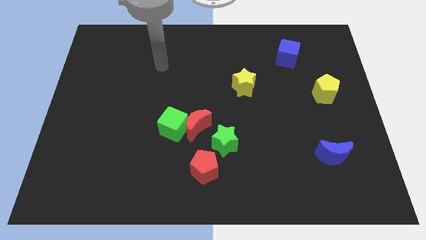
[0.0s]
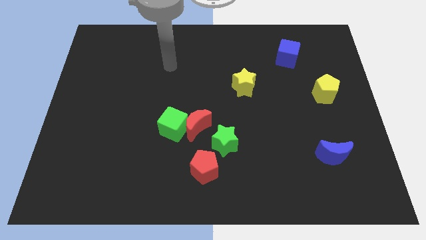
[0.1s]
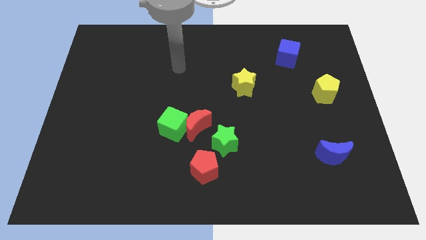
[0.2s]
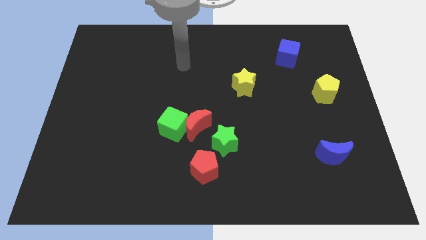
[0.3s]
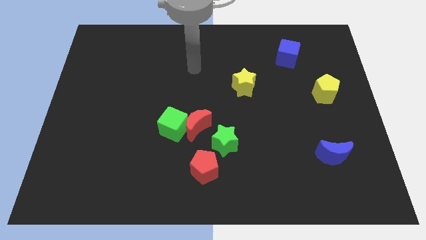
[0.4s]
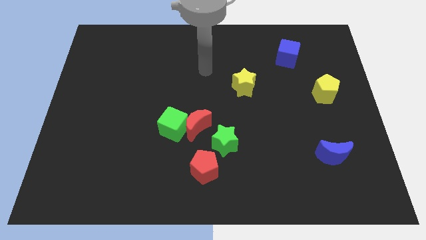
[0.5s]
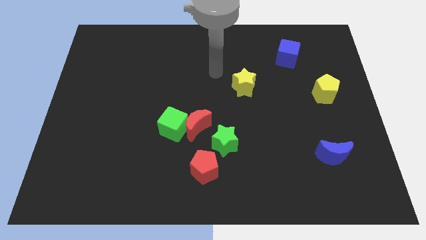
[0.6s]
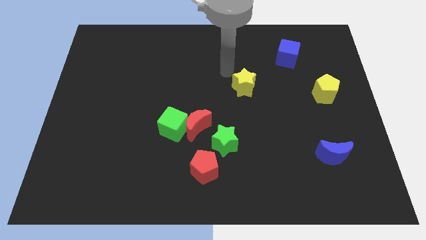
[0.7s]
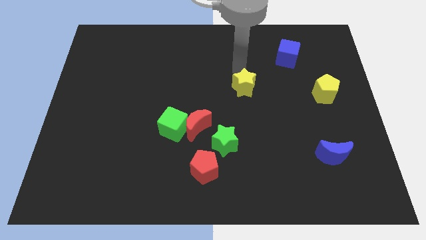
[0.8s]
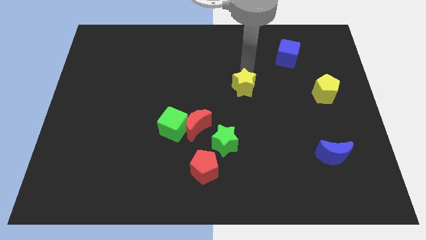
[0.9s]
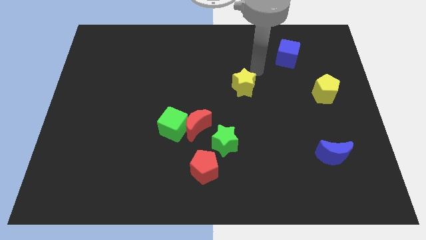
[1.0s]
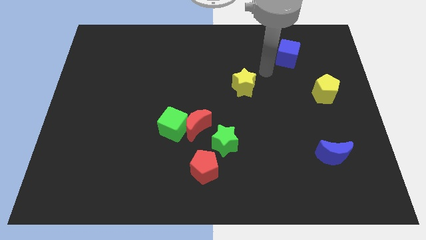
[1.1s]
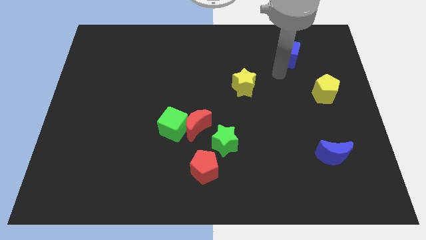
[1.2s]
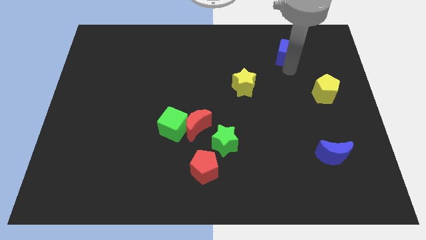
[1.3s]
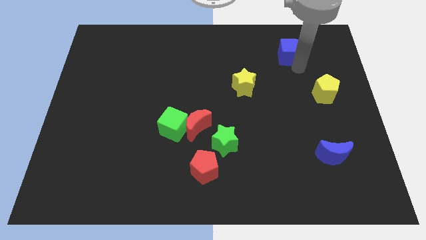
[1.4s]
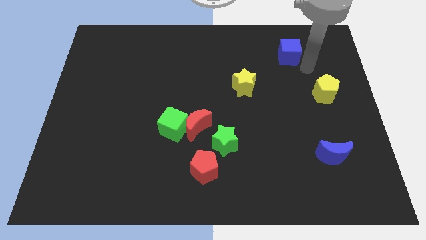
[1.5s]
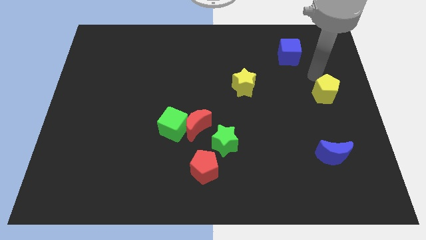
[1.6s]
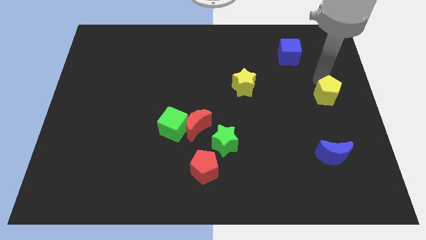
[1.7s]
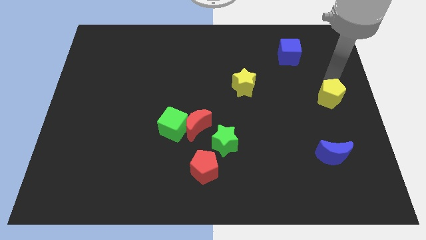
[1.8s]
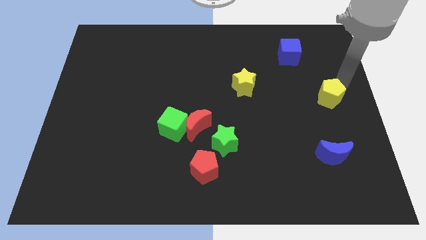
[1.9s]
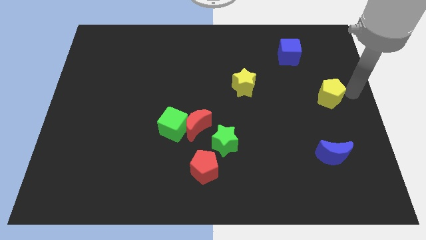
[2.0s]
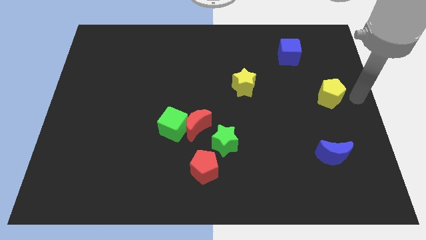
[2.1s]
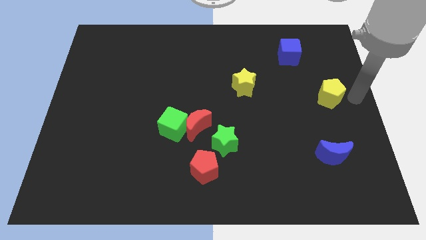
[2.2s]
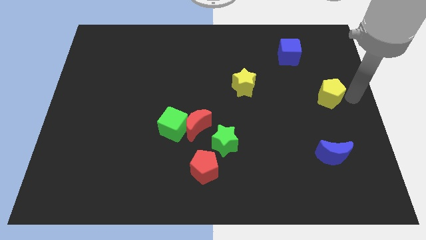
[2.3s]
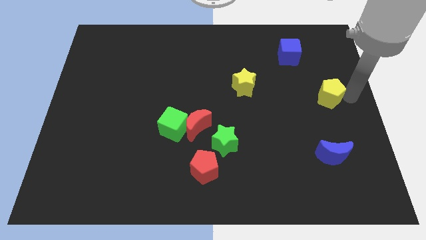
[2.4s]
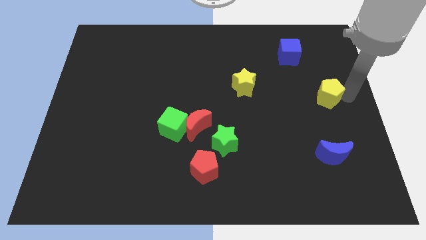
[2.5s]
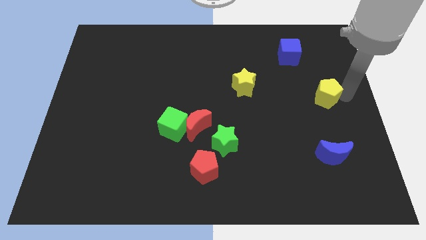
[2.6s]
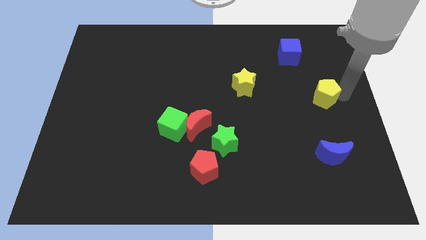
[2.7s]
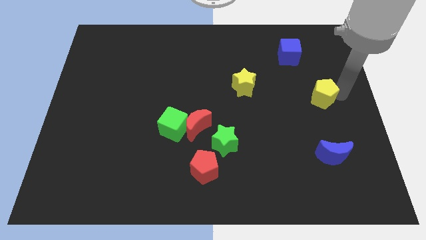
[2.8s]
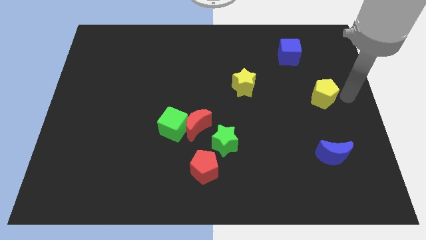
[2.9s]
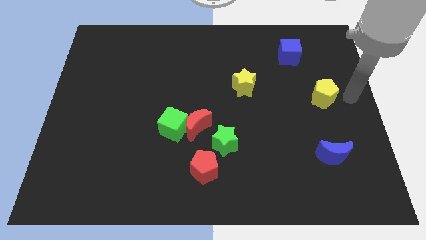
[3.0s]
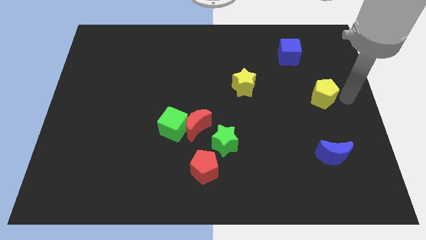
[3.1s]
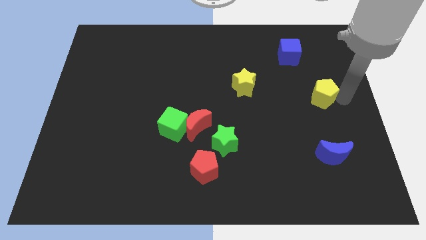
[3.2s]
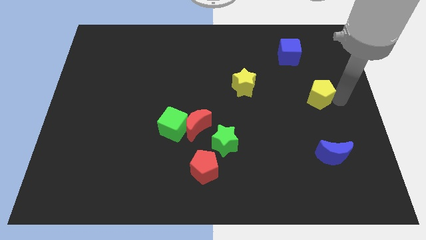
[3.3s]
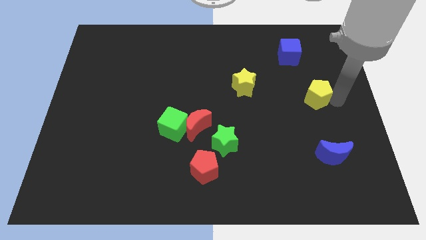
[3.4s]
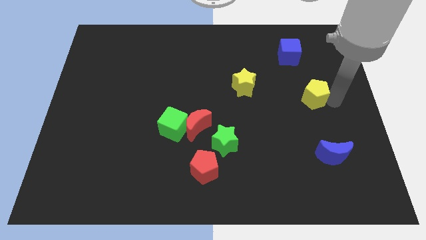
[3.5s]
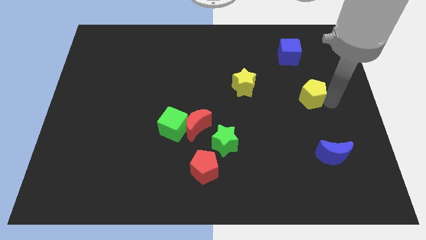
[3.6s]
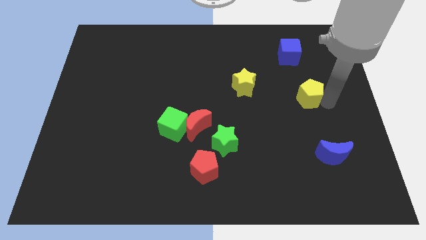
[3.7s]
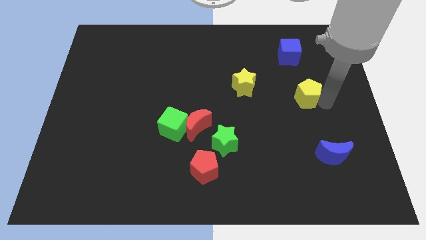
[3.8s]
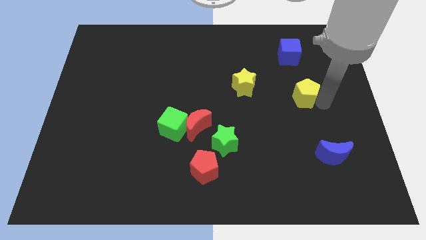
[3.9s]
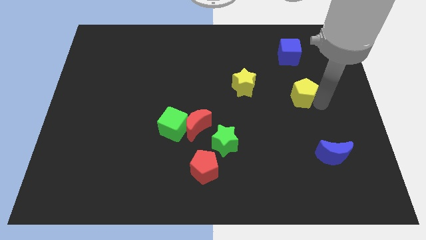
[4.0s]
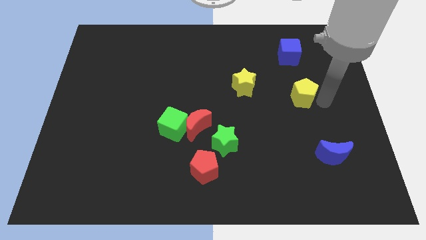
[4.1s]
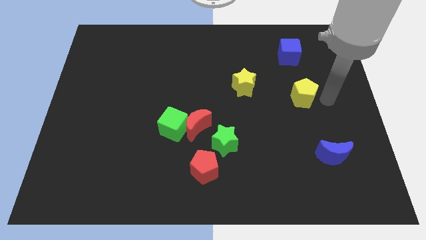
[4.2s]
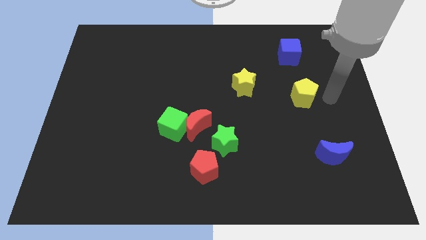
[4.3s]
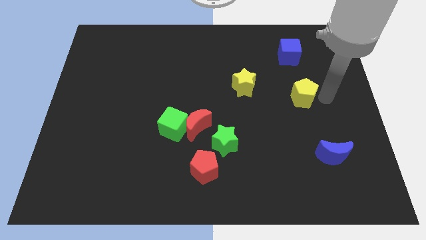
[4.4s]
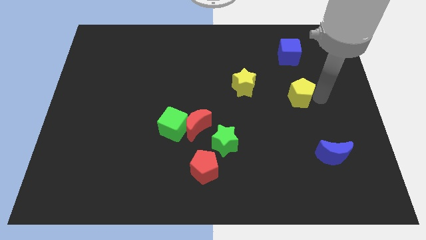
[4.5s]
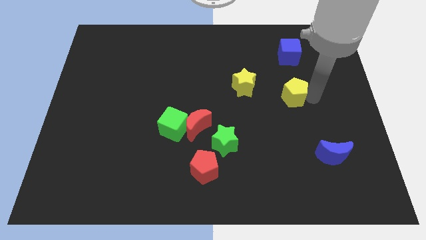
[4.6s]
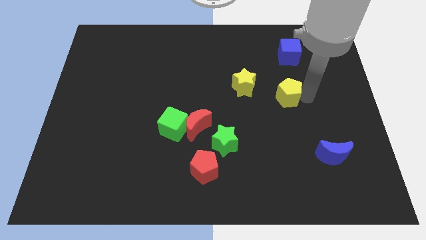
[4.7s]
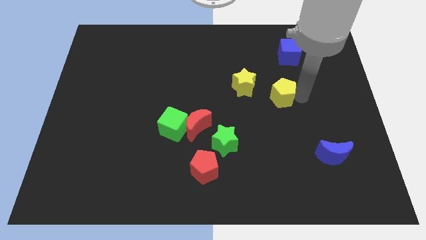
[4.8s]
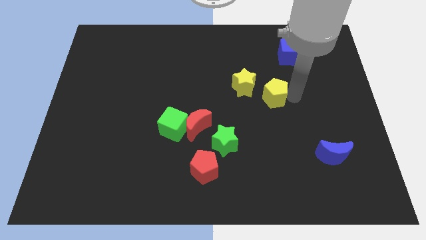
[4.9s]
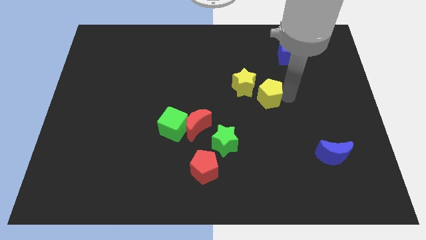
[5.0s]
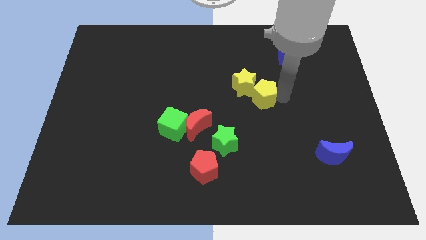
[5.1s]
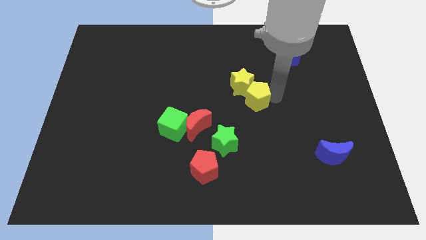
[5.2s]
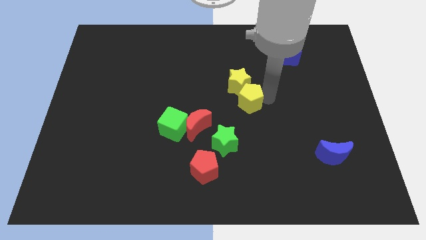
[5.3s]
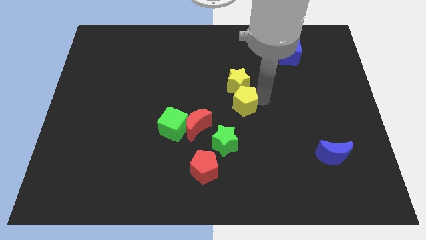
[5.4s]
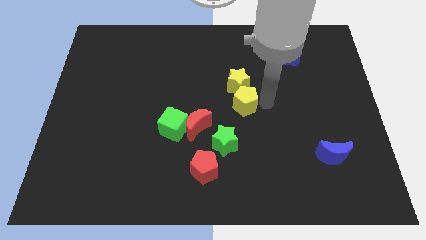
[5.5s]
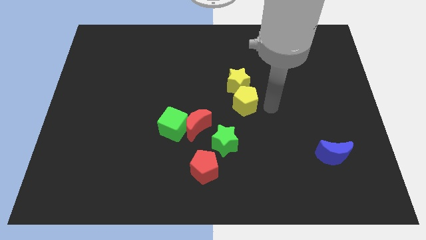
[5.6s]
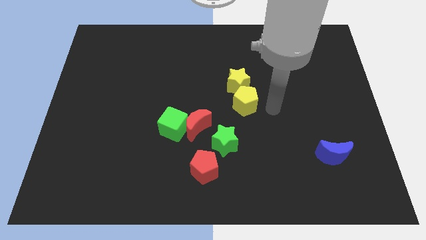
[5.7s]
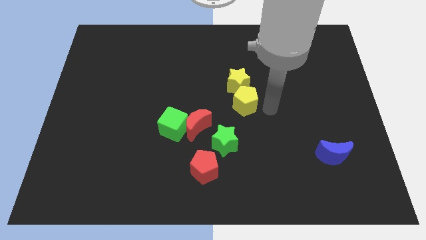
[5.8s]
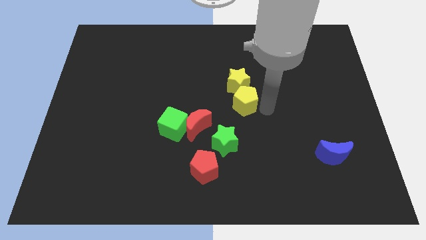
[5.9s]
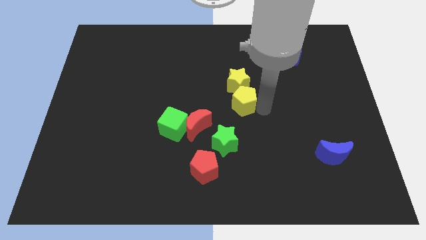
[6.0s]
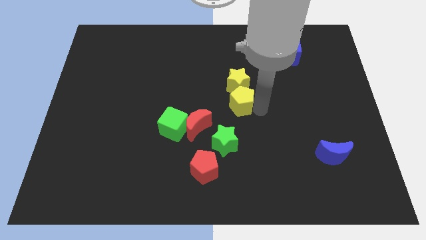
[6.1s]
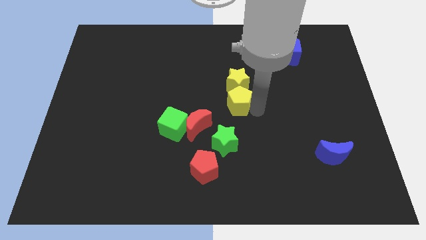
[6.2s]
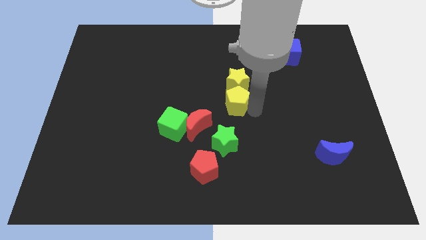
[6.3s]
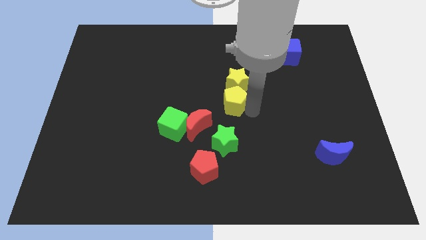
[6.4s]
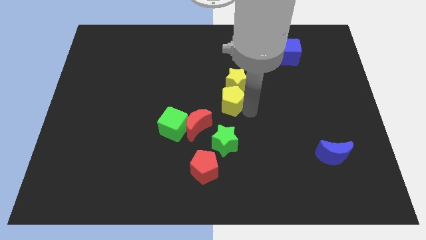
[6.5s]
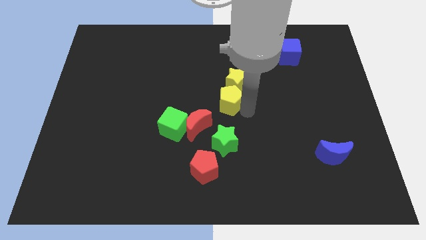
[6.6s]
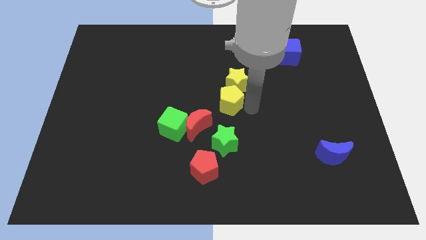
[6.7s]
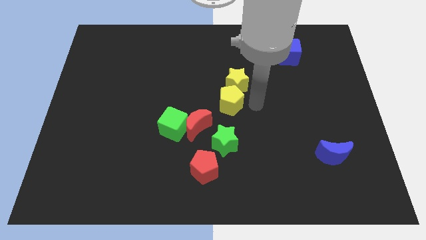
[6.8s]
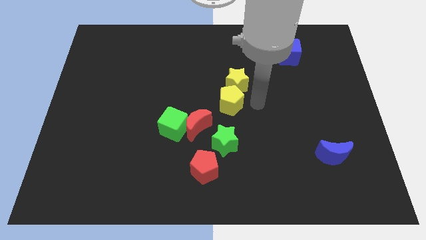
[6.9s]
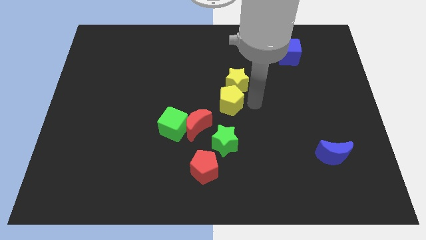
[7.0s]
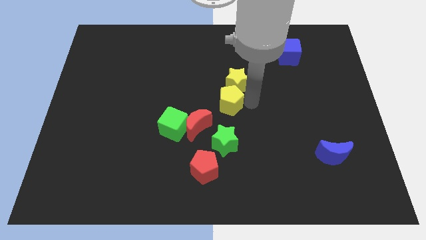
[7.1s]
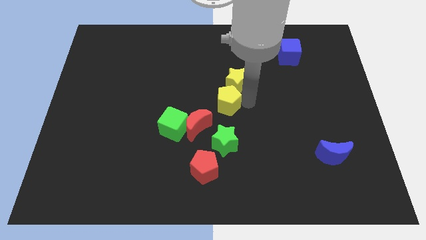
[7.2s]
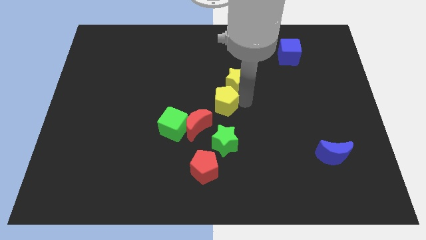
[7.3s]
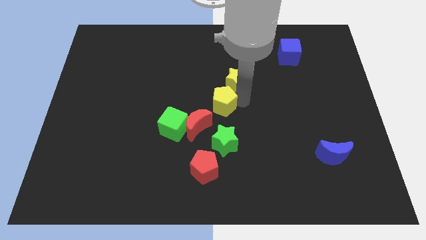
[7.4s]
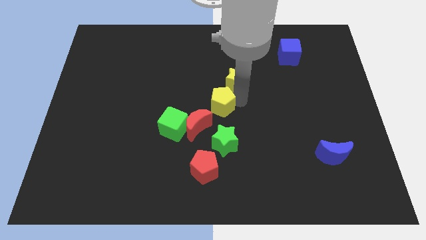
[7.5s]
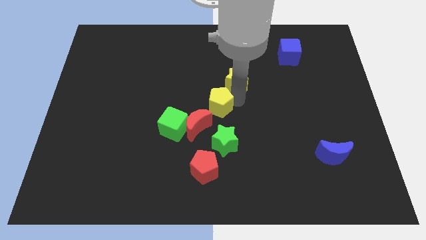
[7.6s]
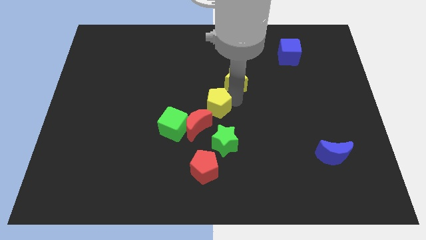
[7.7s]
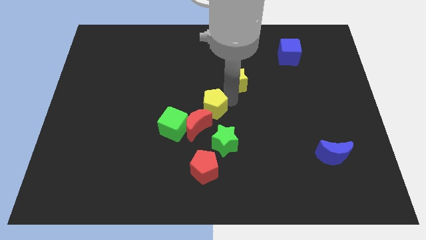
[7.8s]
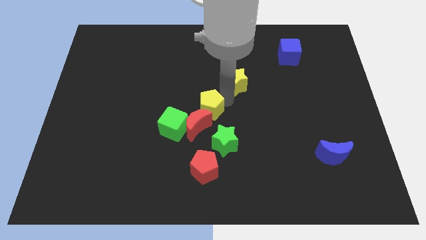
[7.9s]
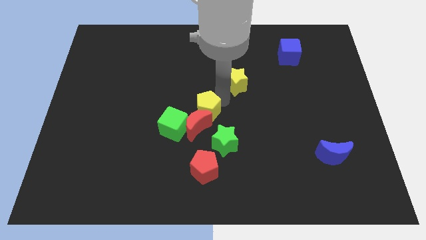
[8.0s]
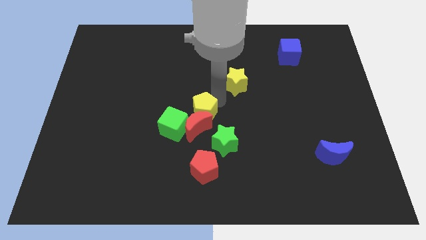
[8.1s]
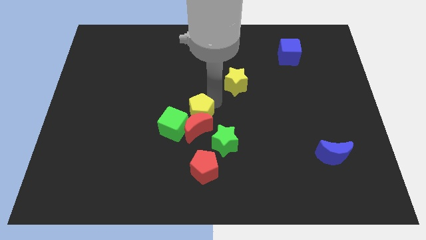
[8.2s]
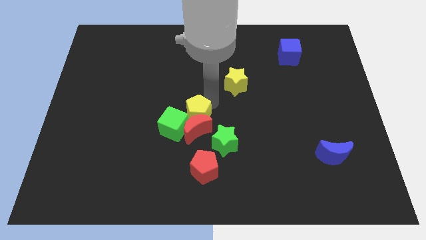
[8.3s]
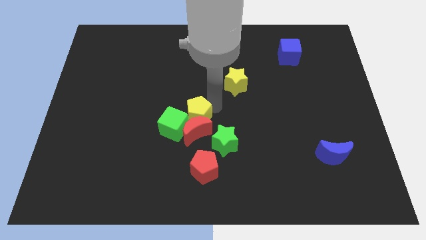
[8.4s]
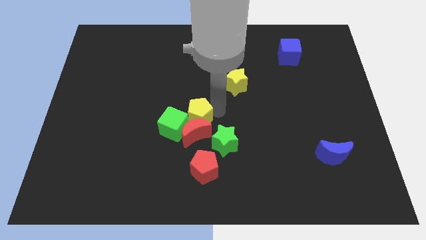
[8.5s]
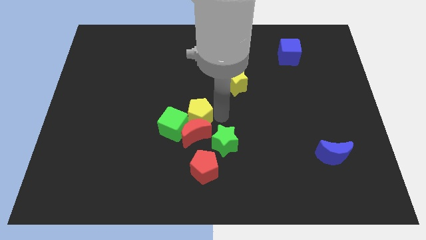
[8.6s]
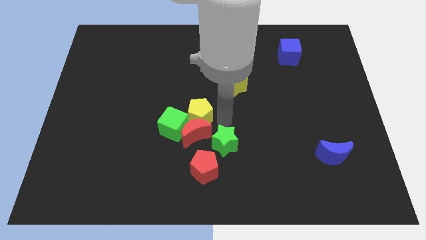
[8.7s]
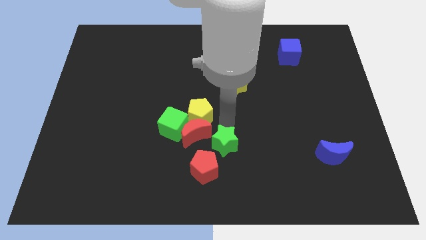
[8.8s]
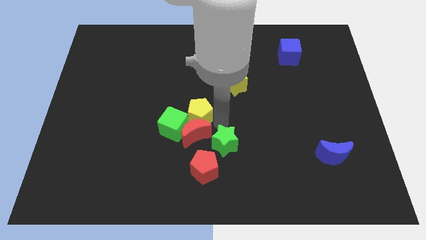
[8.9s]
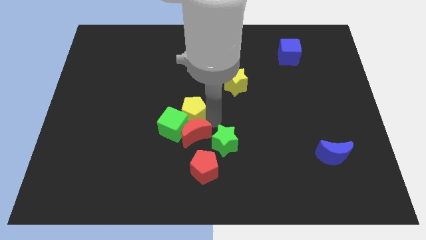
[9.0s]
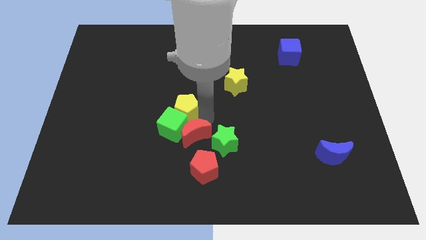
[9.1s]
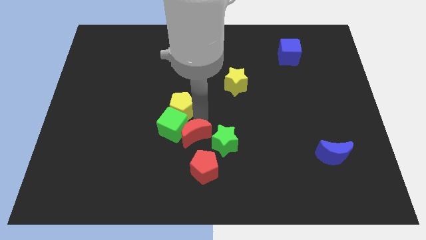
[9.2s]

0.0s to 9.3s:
move the yellow pentagon diagonally up and to the left of the green cube
